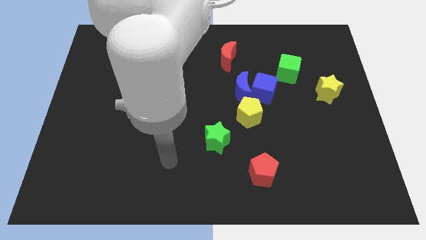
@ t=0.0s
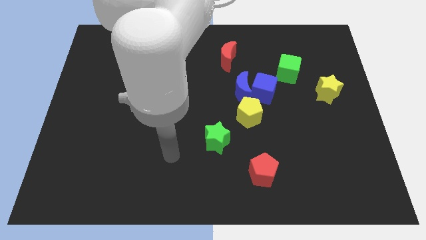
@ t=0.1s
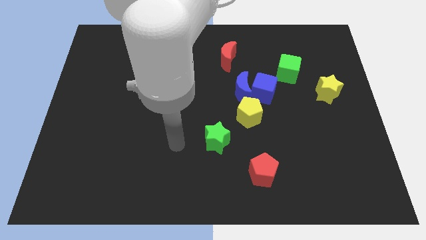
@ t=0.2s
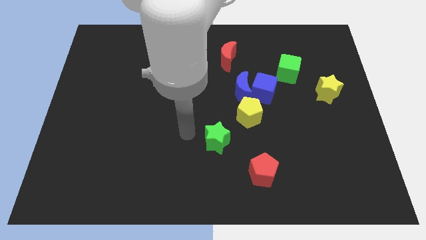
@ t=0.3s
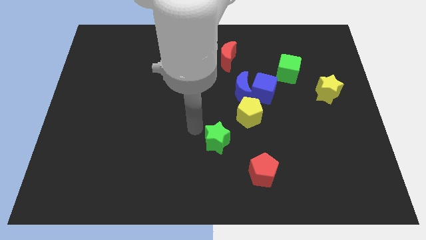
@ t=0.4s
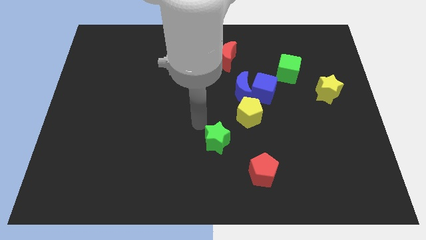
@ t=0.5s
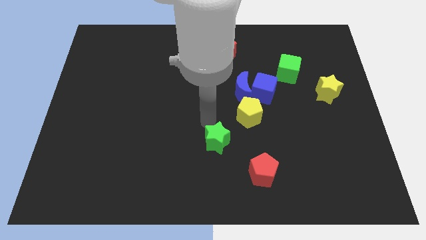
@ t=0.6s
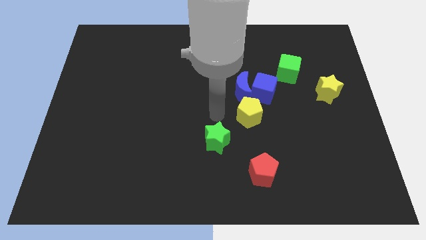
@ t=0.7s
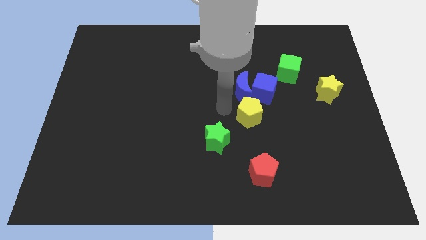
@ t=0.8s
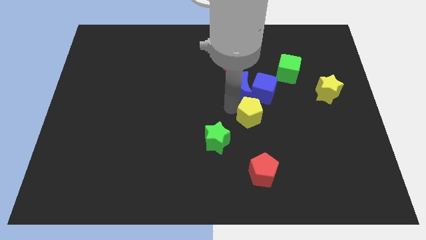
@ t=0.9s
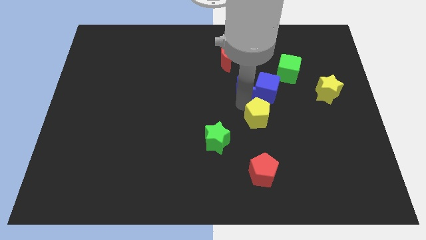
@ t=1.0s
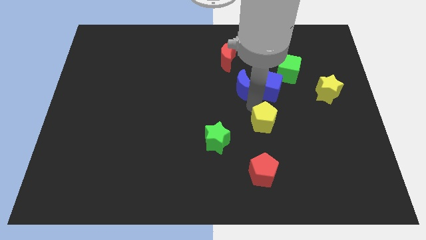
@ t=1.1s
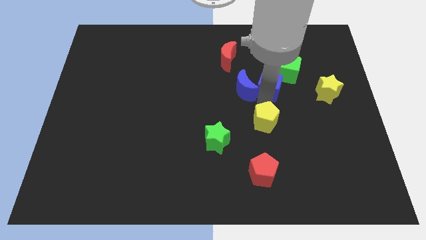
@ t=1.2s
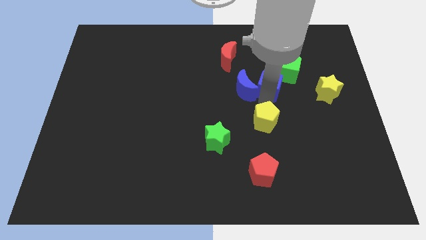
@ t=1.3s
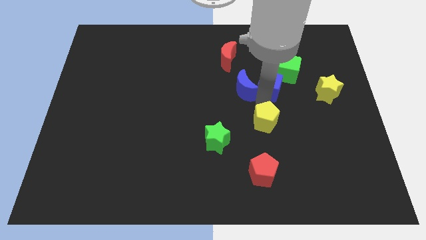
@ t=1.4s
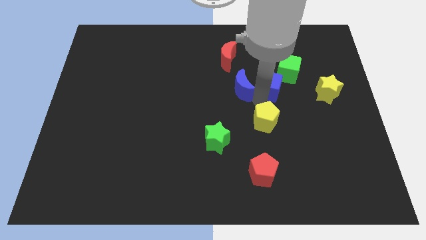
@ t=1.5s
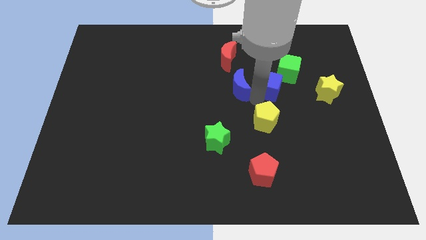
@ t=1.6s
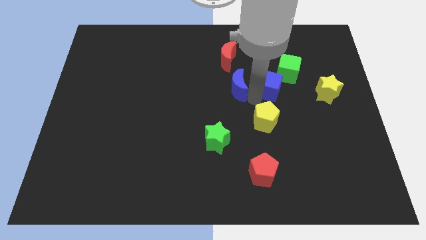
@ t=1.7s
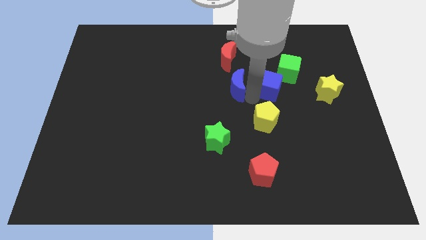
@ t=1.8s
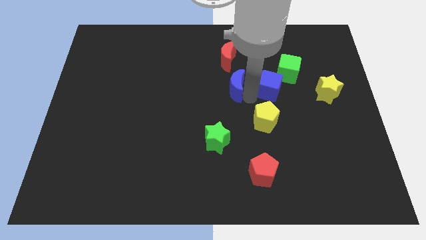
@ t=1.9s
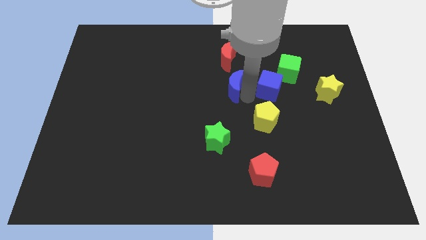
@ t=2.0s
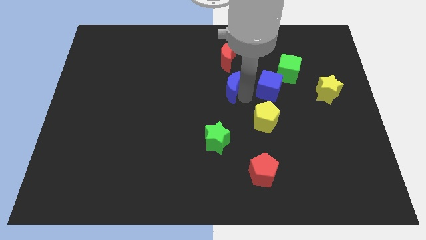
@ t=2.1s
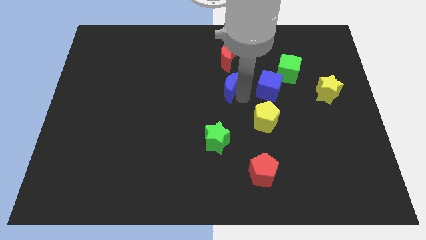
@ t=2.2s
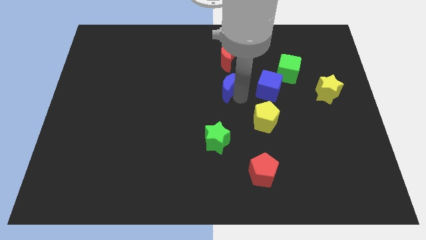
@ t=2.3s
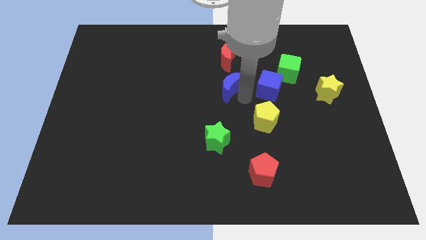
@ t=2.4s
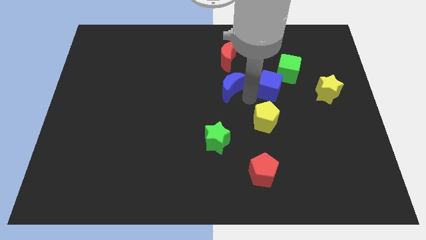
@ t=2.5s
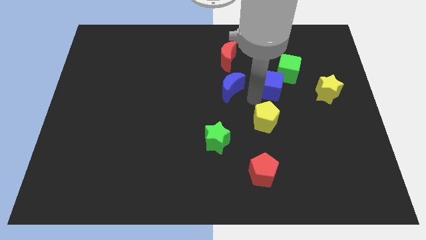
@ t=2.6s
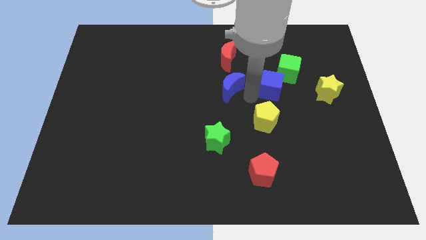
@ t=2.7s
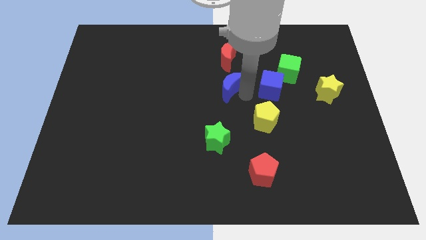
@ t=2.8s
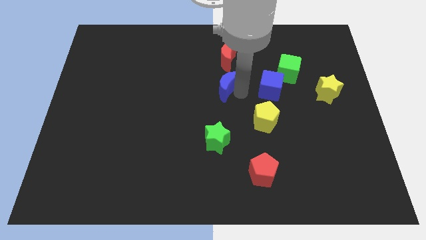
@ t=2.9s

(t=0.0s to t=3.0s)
move the blue moon away from the blue cube and yellow pentagon

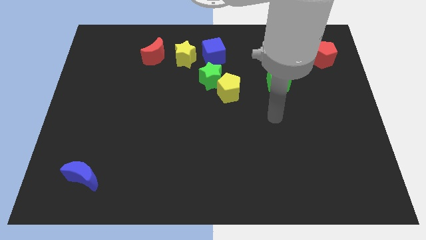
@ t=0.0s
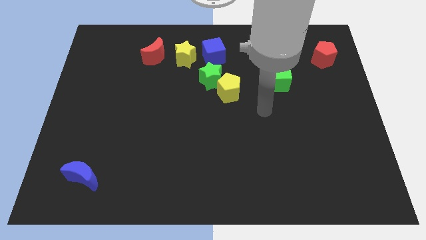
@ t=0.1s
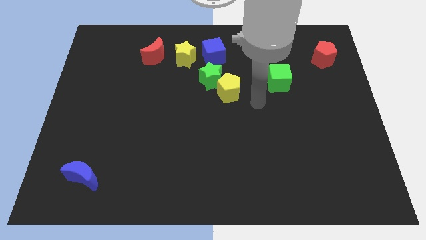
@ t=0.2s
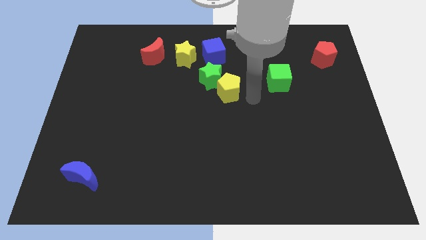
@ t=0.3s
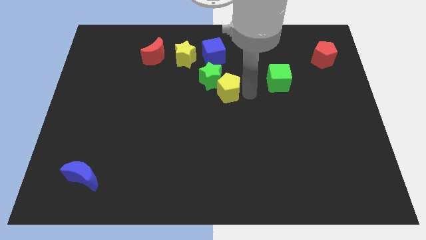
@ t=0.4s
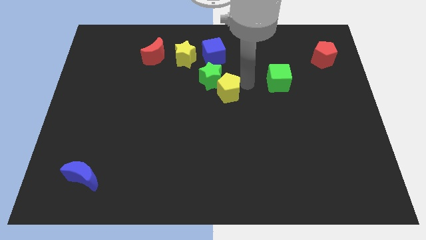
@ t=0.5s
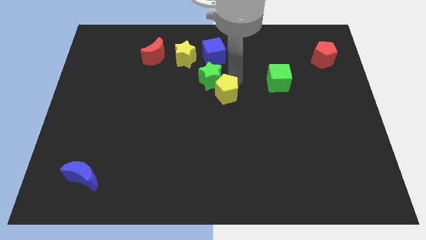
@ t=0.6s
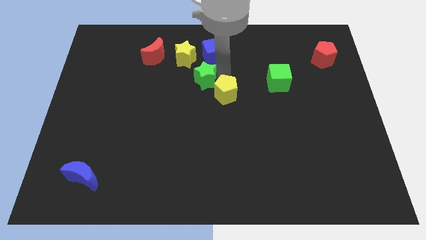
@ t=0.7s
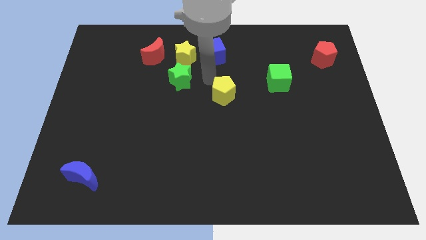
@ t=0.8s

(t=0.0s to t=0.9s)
separate the yellow pentagon from the green star

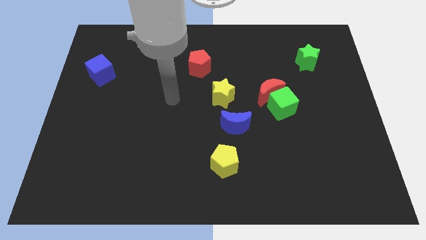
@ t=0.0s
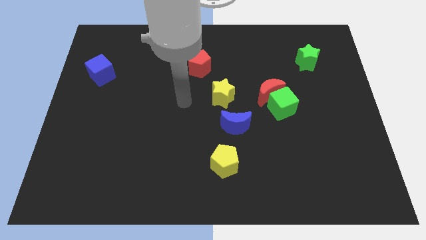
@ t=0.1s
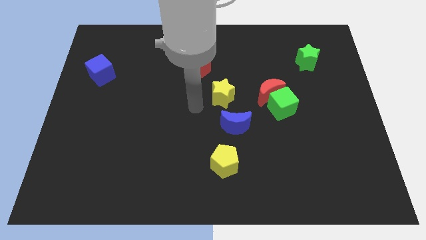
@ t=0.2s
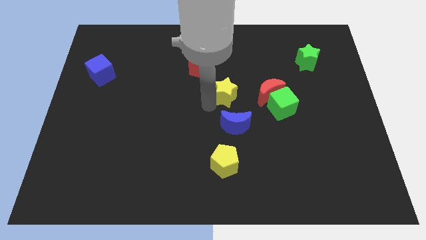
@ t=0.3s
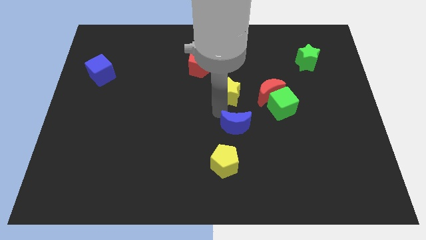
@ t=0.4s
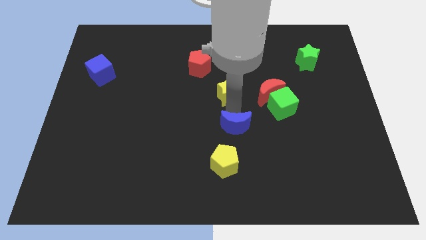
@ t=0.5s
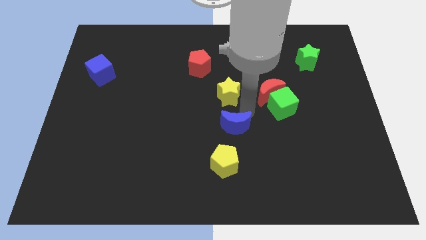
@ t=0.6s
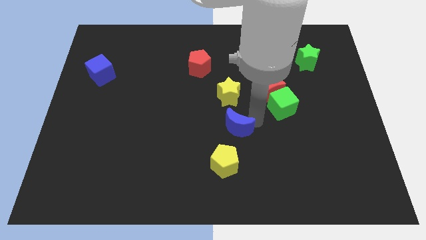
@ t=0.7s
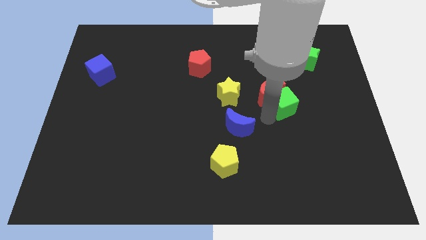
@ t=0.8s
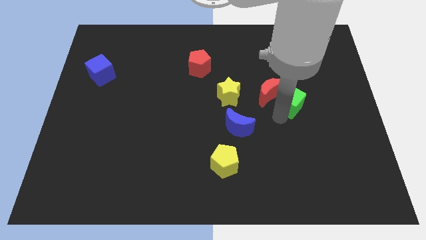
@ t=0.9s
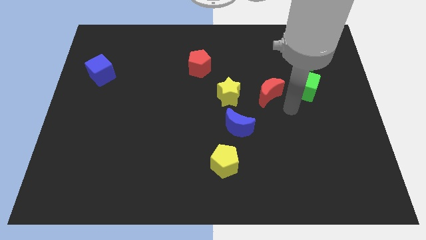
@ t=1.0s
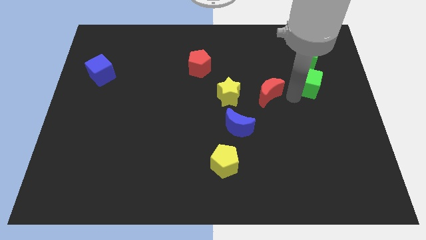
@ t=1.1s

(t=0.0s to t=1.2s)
separate the red moon from the green cube

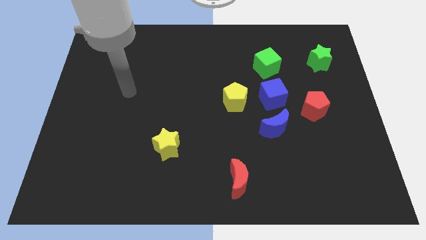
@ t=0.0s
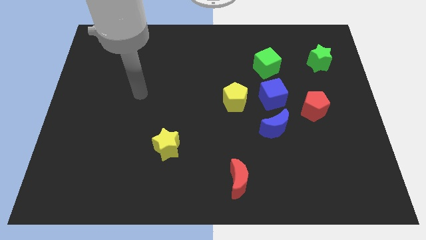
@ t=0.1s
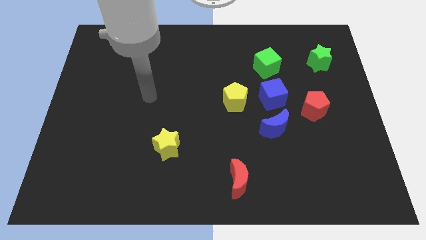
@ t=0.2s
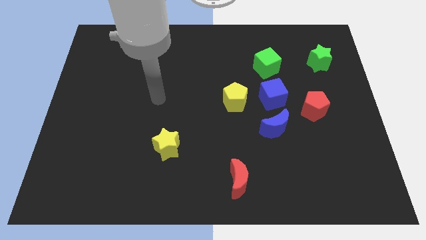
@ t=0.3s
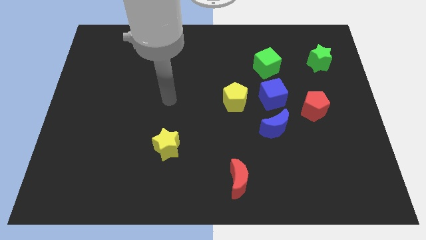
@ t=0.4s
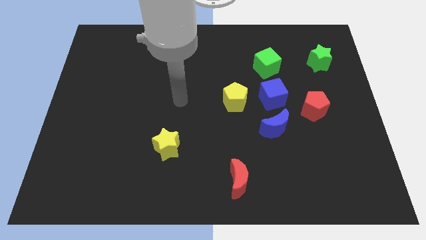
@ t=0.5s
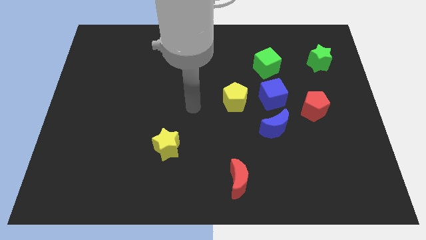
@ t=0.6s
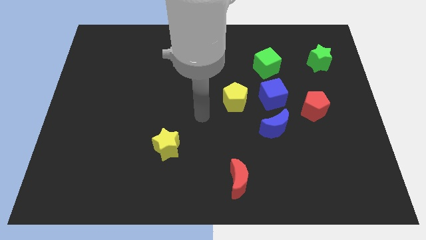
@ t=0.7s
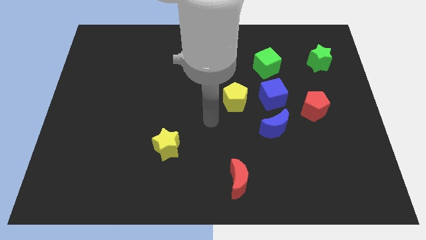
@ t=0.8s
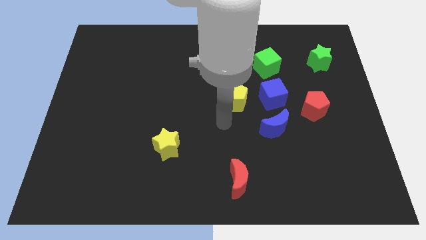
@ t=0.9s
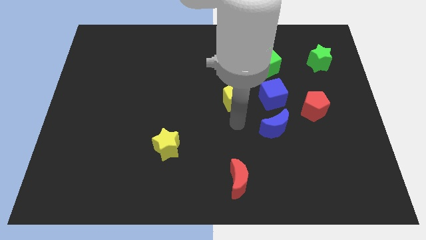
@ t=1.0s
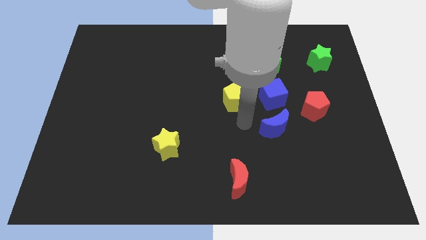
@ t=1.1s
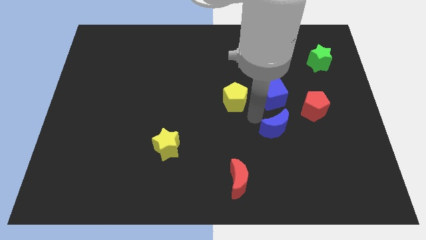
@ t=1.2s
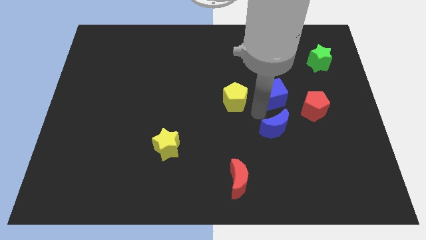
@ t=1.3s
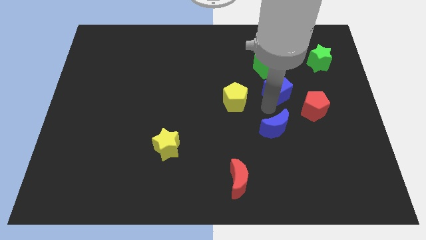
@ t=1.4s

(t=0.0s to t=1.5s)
pull the blue moon apart from the blue cube

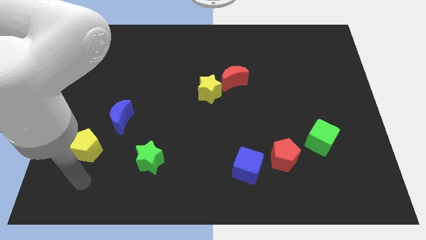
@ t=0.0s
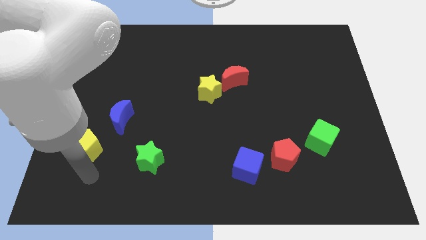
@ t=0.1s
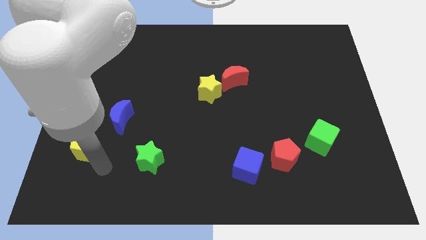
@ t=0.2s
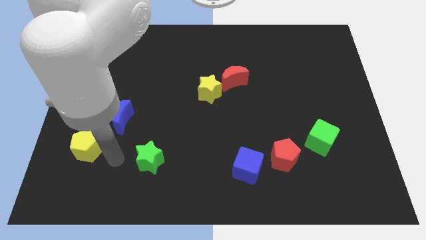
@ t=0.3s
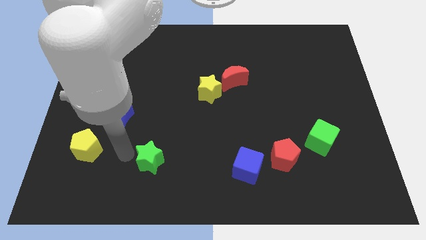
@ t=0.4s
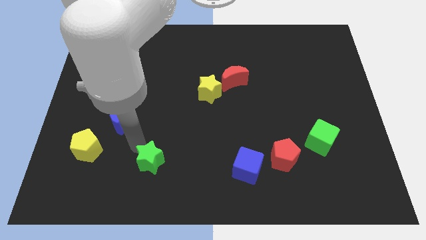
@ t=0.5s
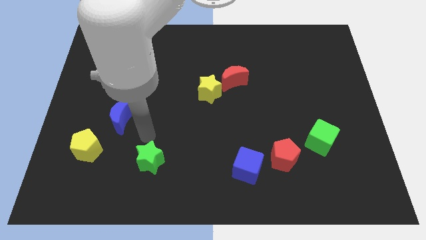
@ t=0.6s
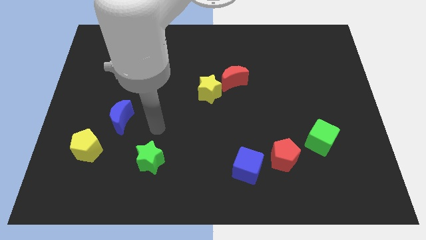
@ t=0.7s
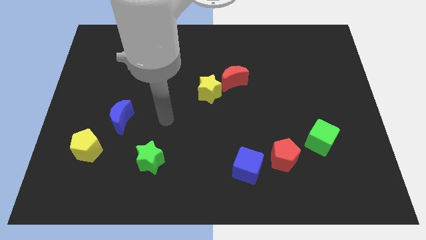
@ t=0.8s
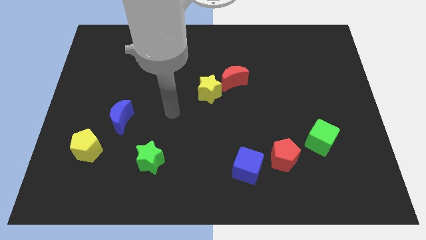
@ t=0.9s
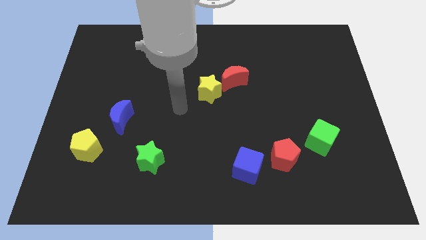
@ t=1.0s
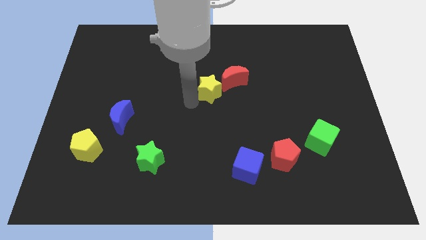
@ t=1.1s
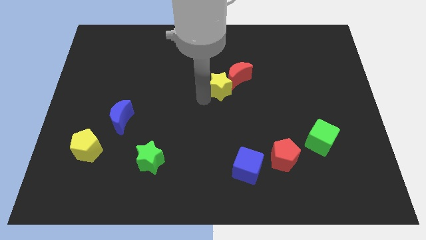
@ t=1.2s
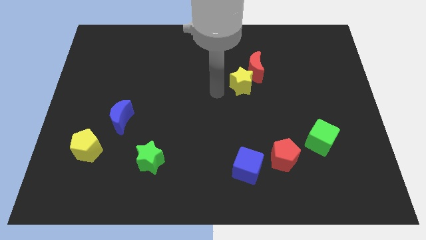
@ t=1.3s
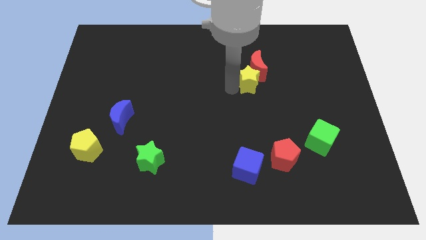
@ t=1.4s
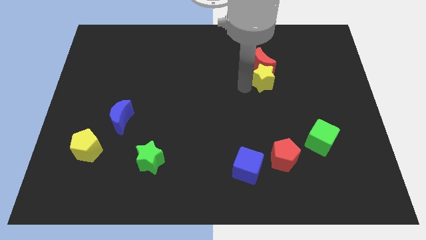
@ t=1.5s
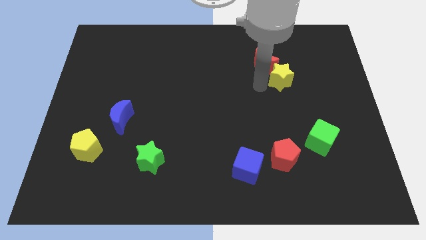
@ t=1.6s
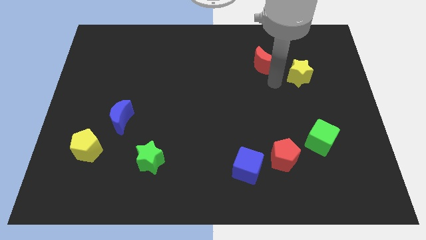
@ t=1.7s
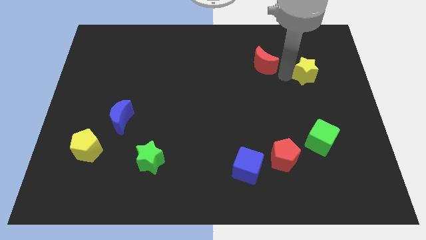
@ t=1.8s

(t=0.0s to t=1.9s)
move the red moon away from the yellow star

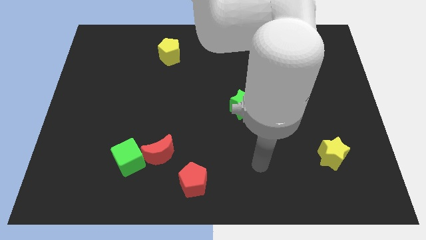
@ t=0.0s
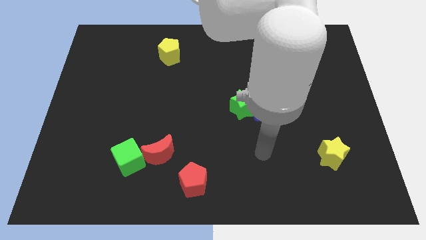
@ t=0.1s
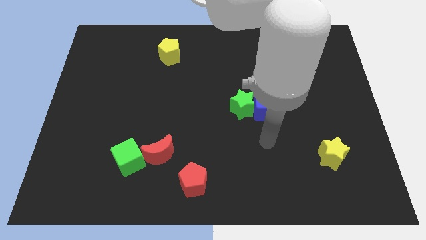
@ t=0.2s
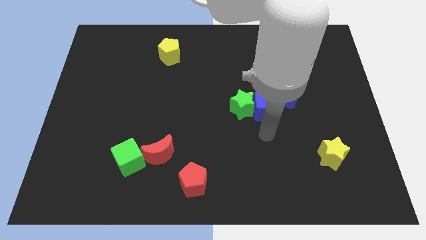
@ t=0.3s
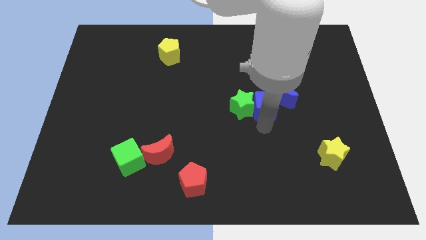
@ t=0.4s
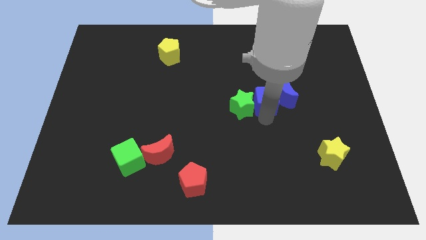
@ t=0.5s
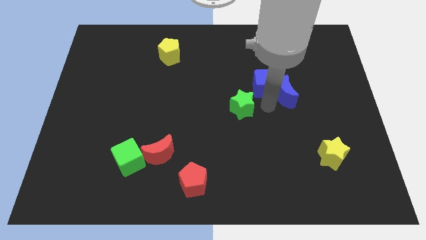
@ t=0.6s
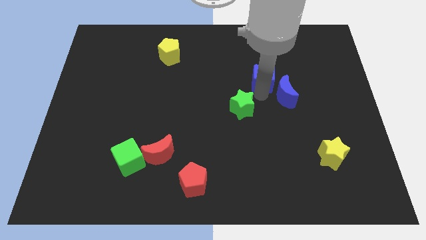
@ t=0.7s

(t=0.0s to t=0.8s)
move the green star away from the blue cube
